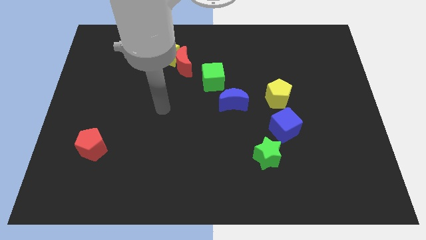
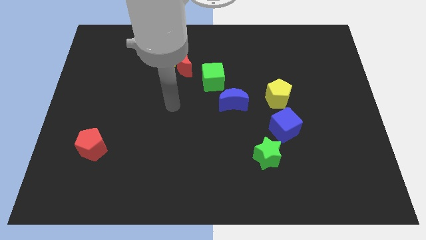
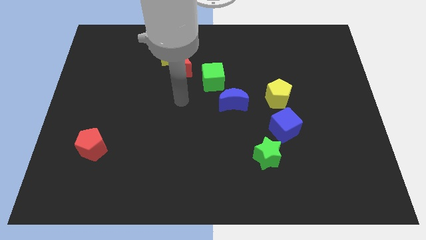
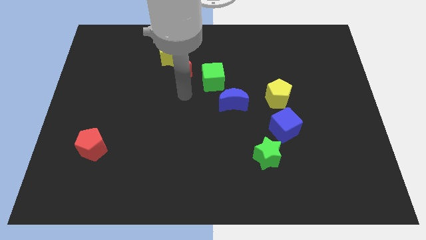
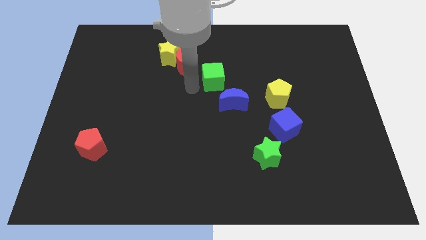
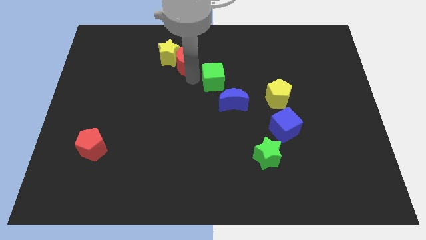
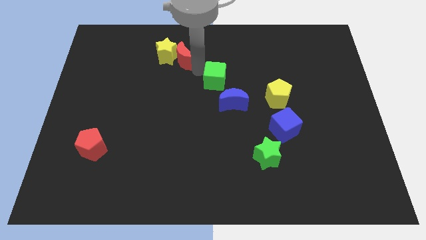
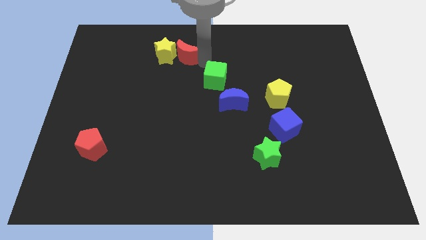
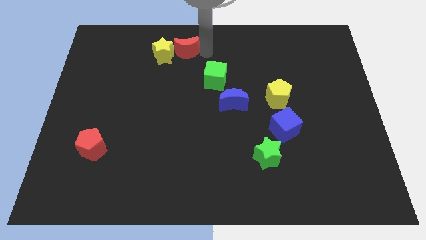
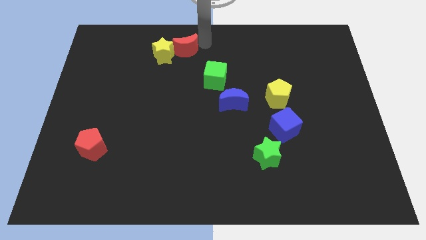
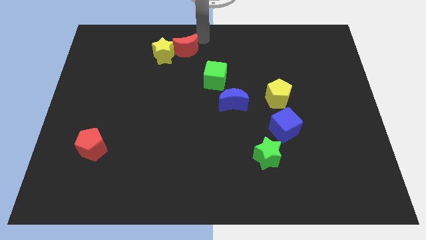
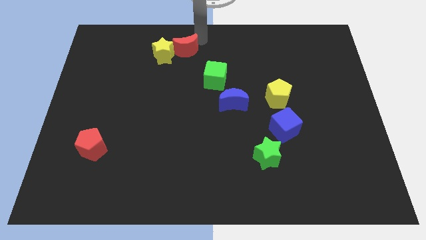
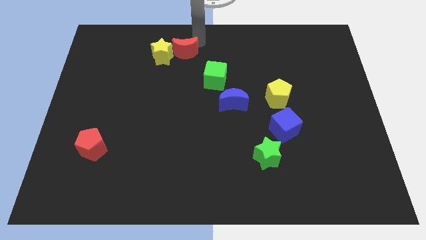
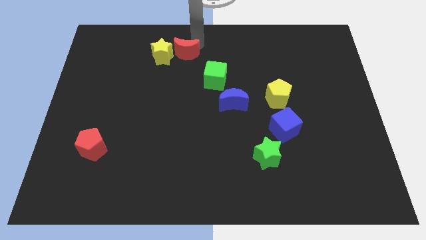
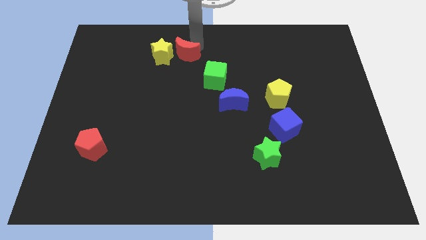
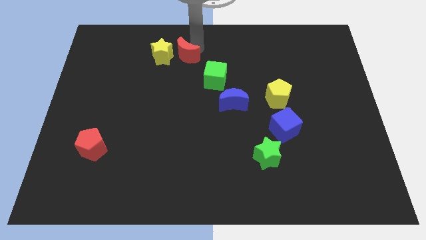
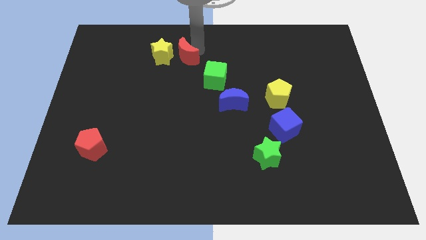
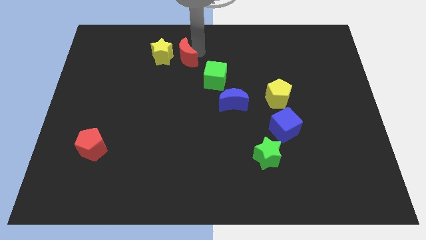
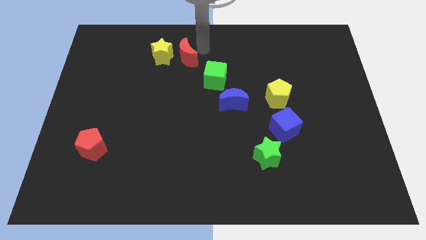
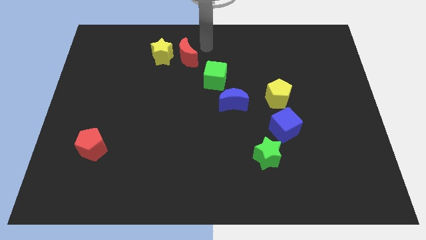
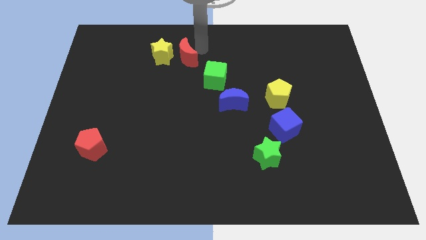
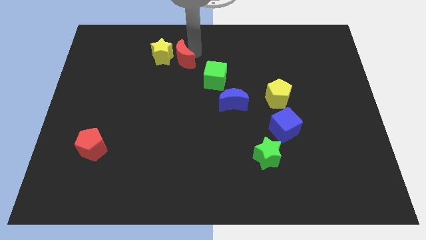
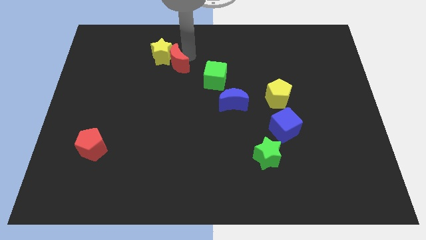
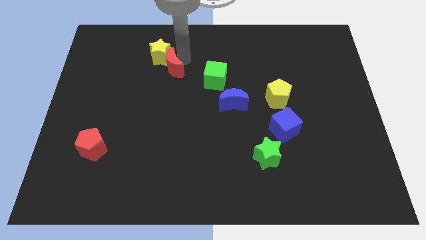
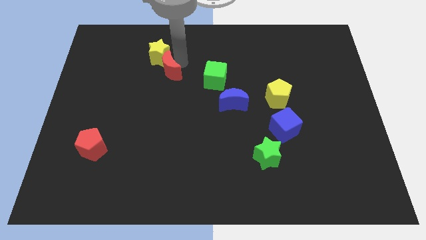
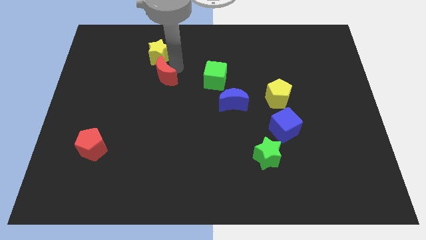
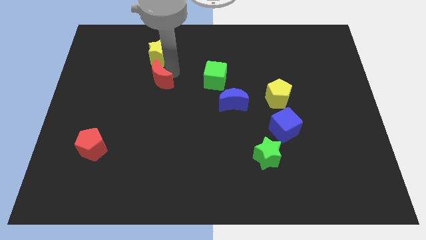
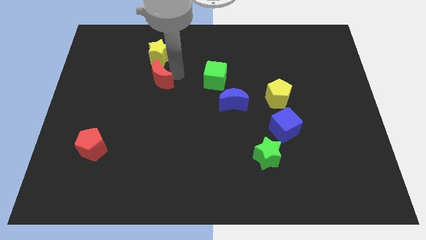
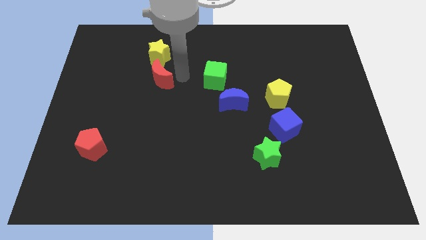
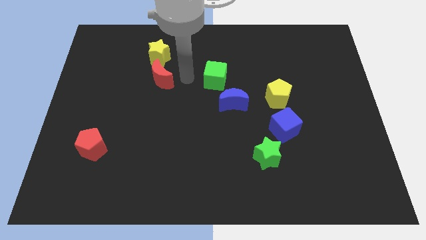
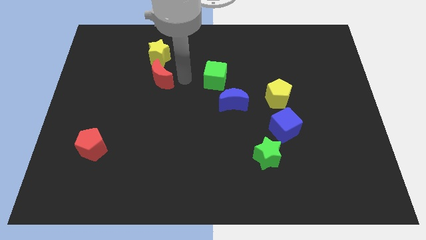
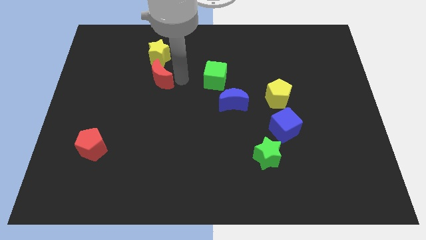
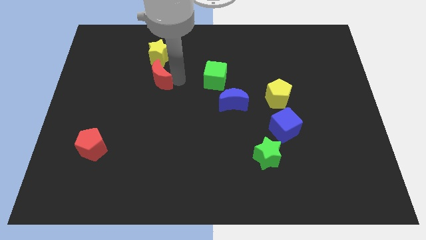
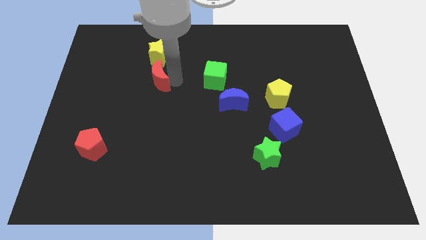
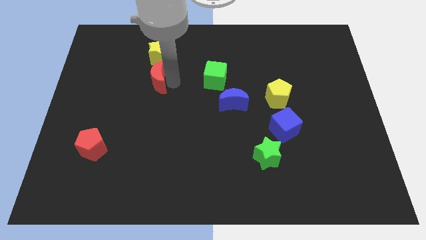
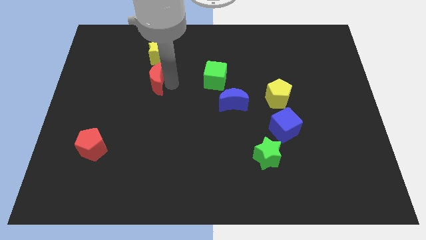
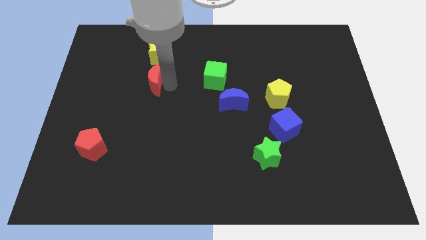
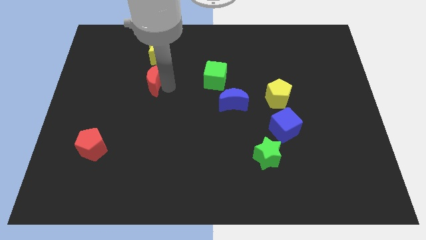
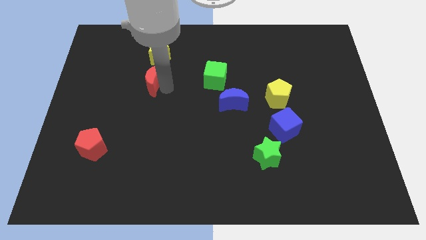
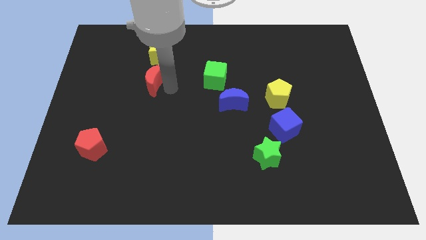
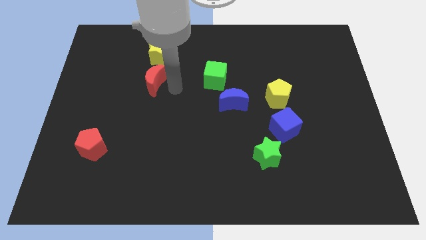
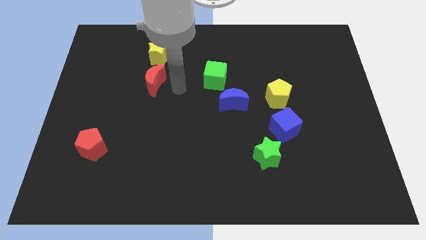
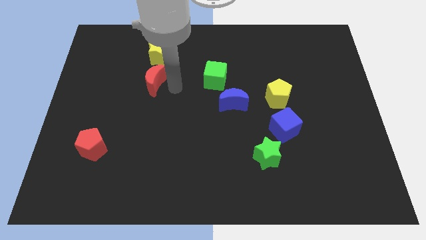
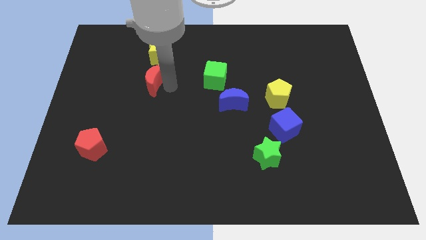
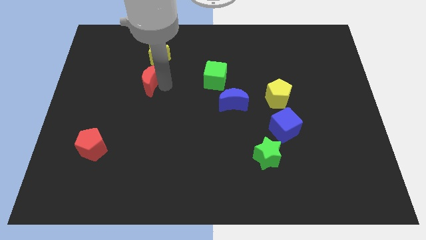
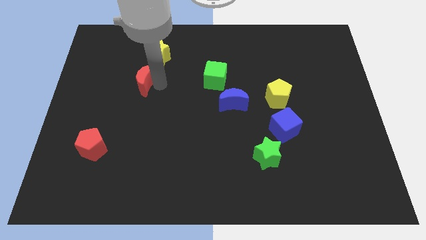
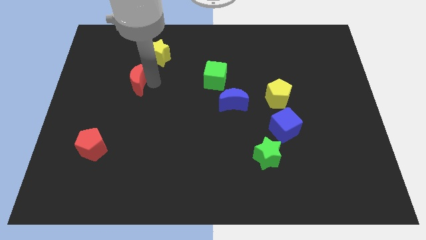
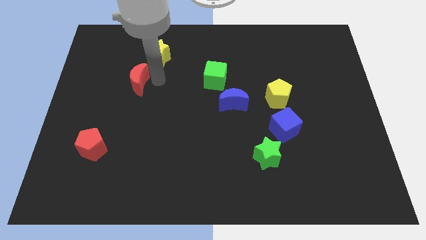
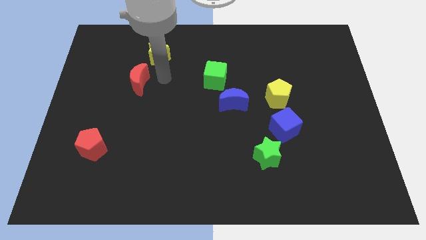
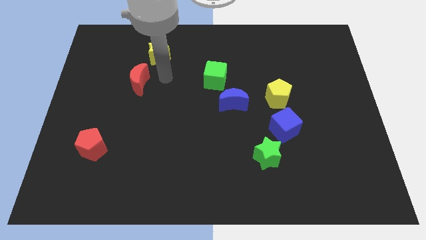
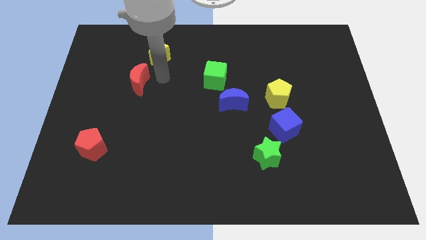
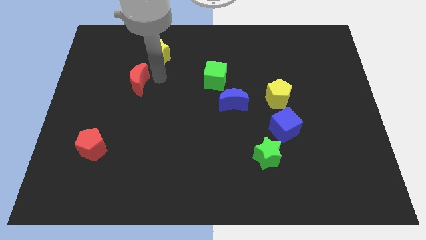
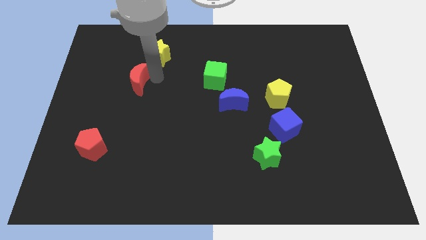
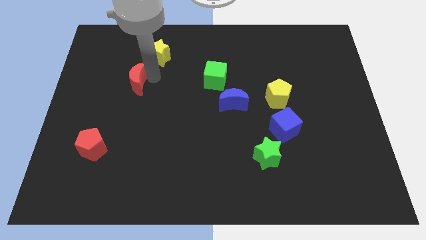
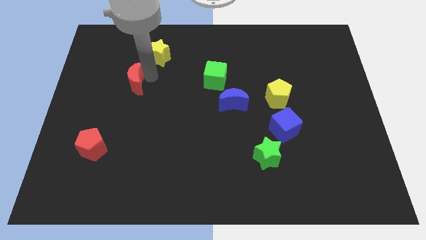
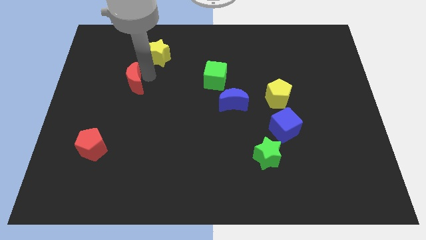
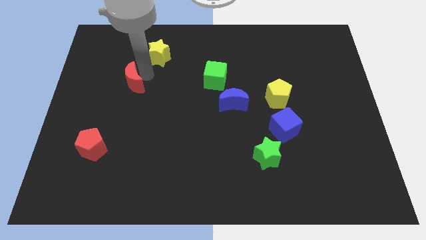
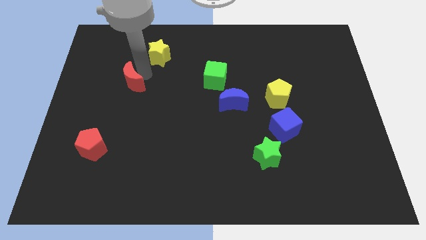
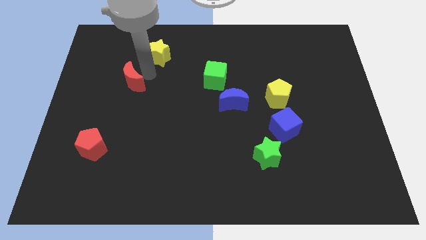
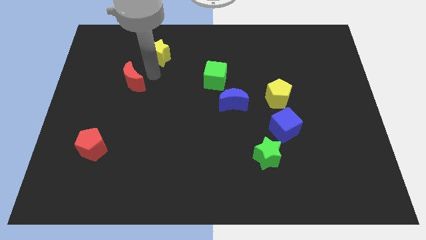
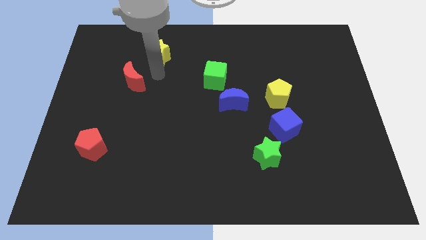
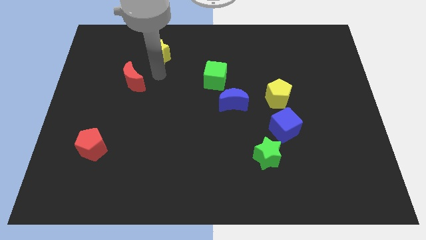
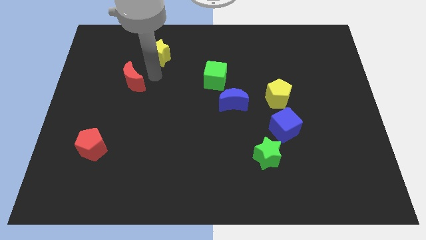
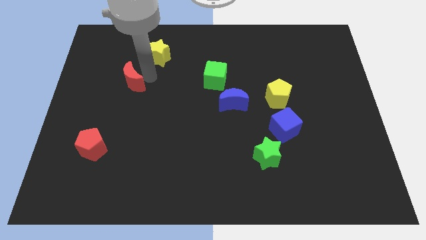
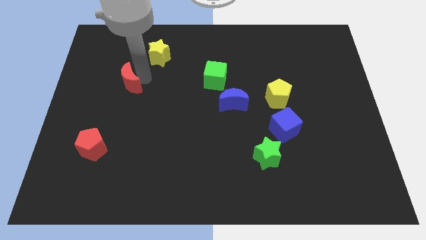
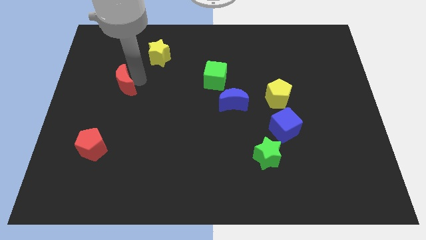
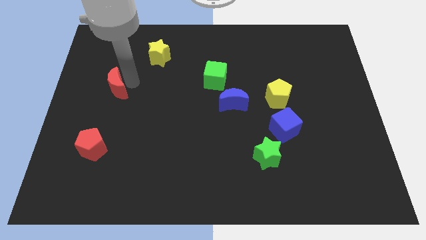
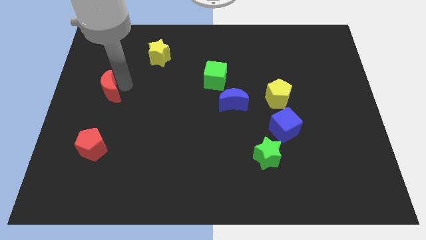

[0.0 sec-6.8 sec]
slide the red moon to the center left
